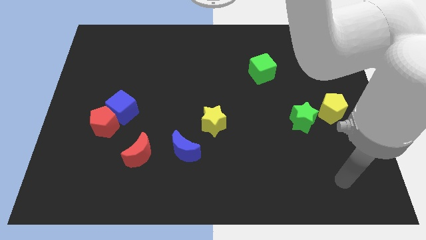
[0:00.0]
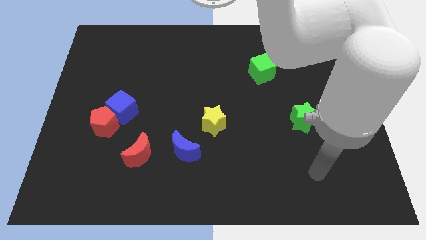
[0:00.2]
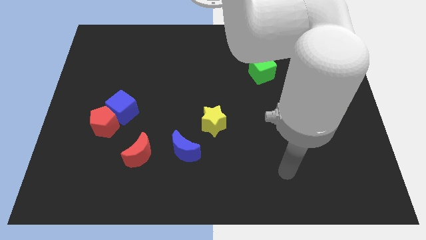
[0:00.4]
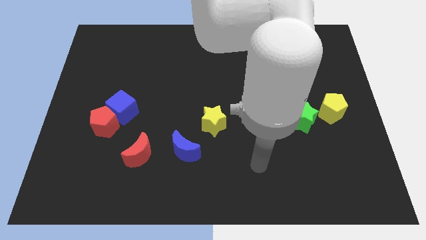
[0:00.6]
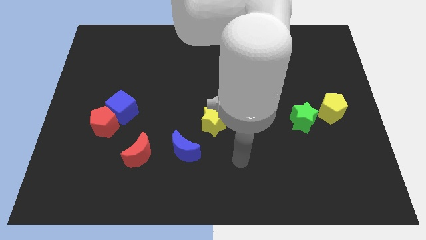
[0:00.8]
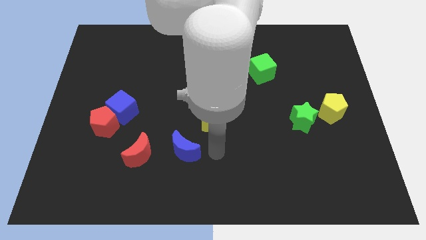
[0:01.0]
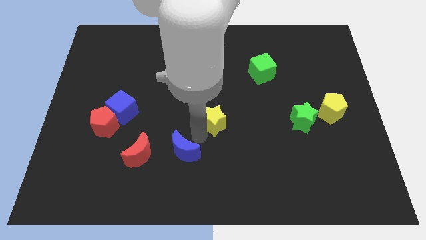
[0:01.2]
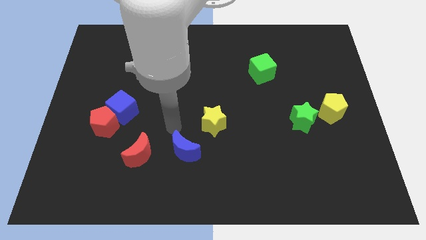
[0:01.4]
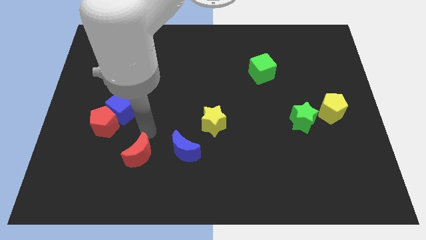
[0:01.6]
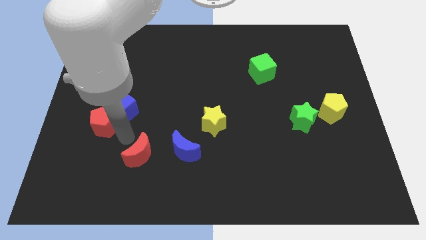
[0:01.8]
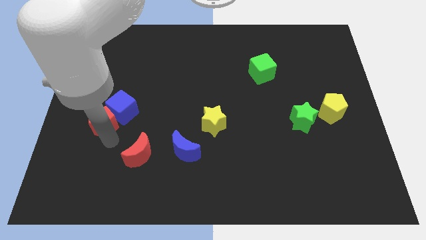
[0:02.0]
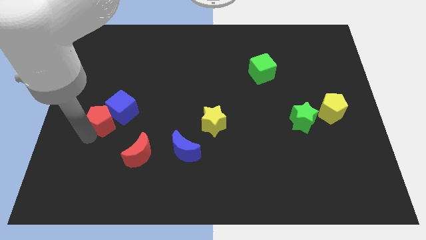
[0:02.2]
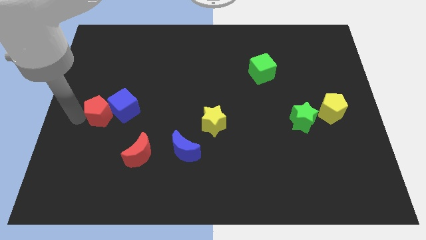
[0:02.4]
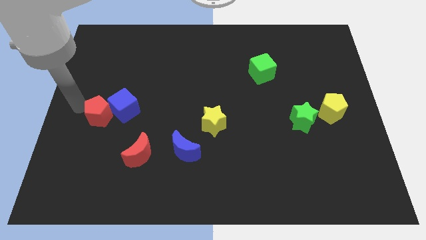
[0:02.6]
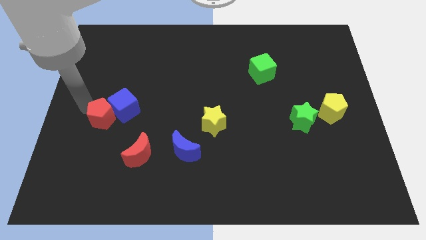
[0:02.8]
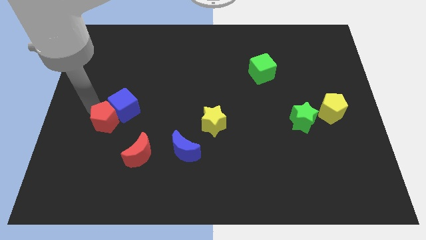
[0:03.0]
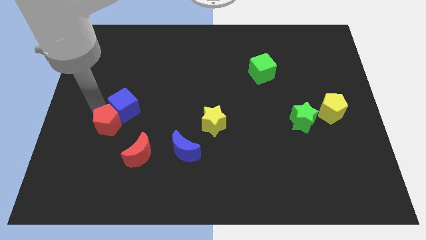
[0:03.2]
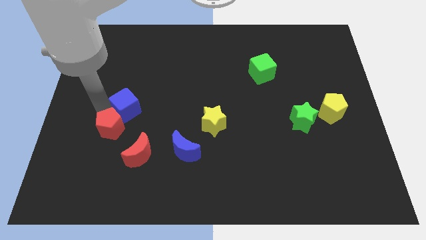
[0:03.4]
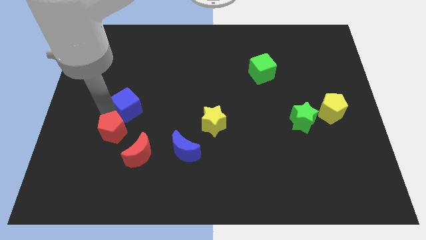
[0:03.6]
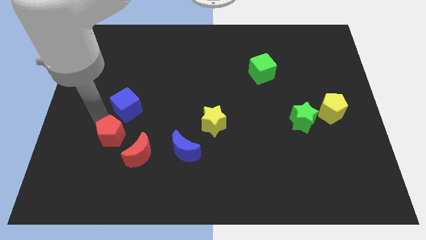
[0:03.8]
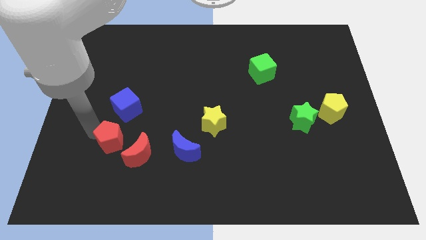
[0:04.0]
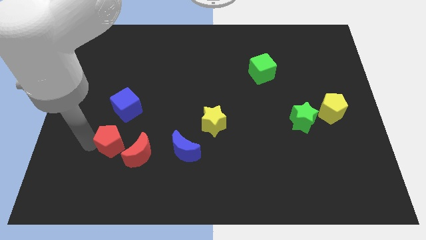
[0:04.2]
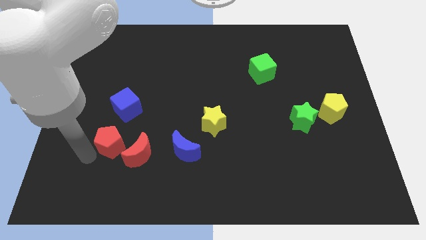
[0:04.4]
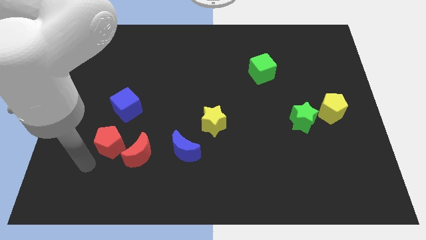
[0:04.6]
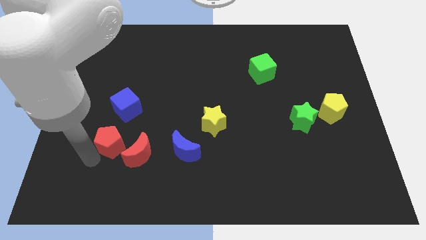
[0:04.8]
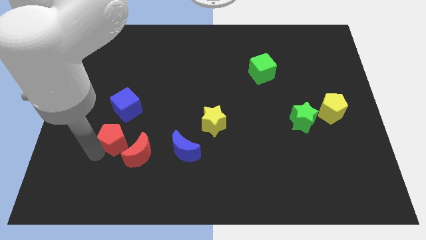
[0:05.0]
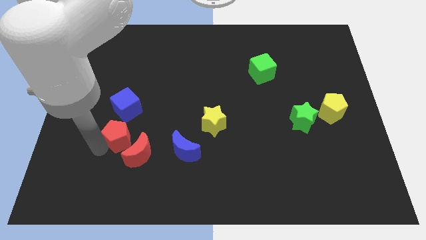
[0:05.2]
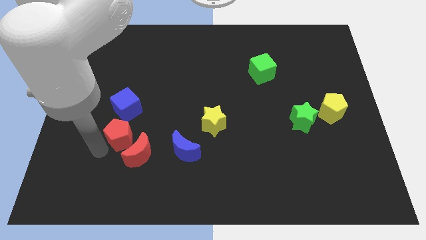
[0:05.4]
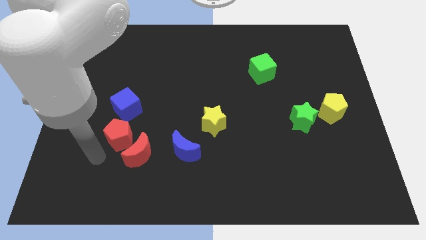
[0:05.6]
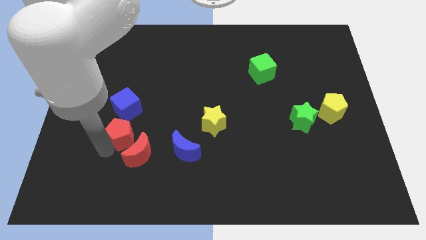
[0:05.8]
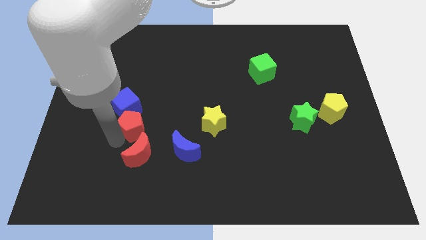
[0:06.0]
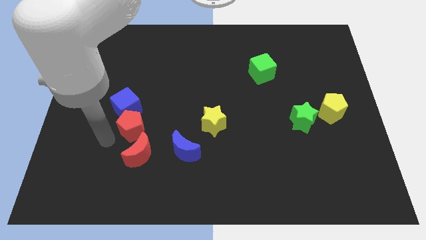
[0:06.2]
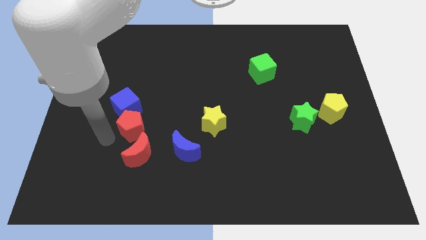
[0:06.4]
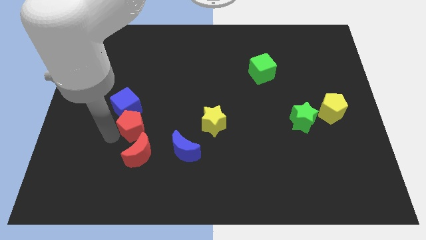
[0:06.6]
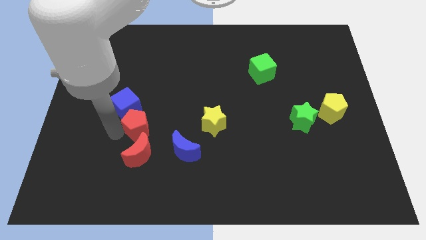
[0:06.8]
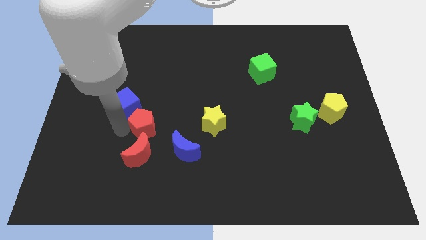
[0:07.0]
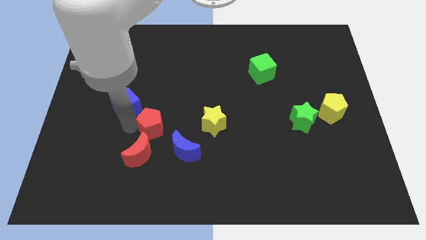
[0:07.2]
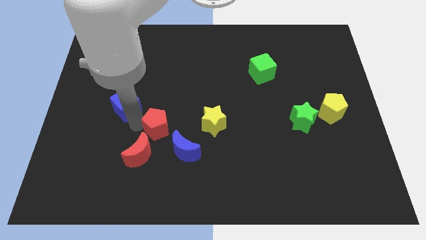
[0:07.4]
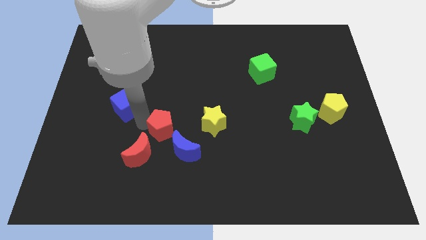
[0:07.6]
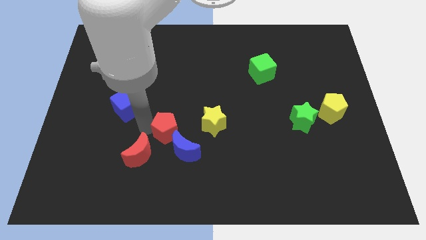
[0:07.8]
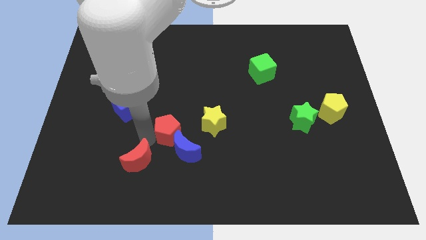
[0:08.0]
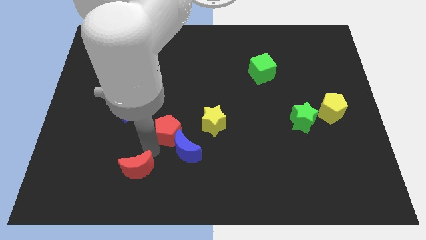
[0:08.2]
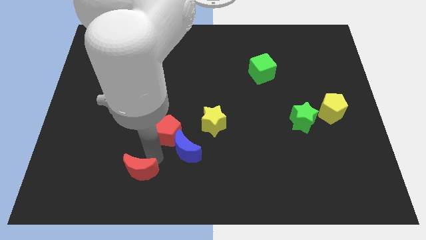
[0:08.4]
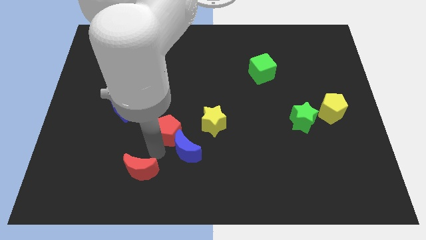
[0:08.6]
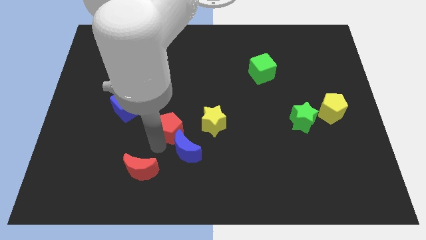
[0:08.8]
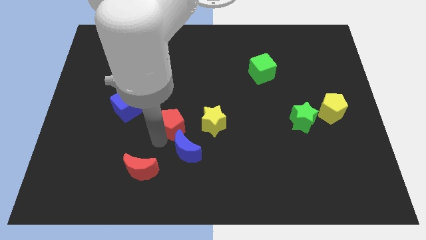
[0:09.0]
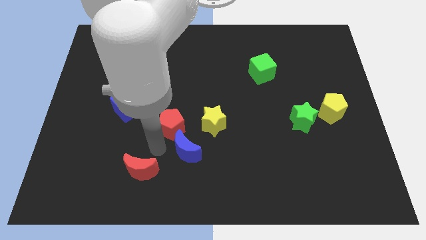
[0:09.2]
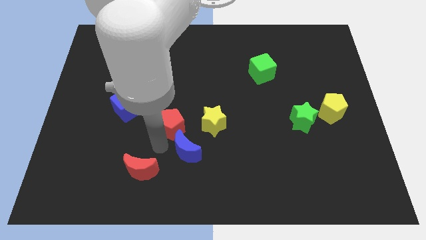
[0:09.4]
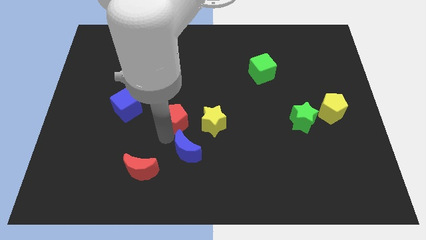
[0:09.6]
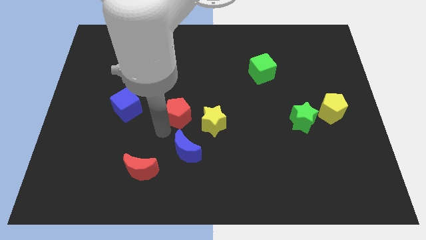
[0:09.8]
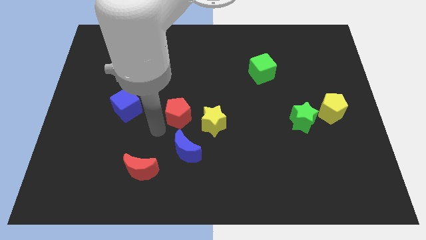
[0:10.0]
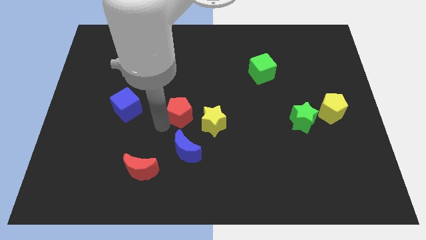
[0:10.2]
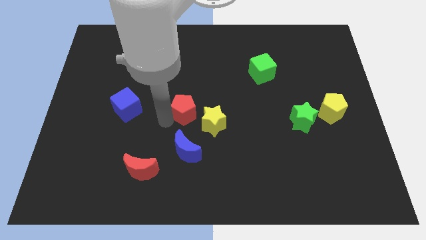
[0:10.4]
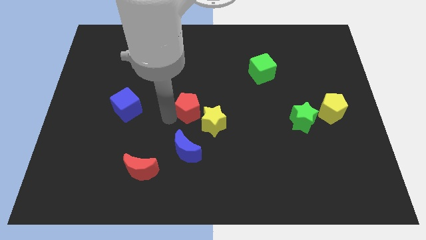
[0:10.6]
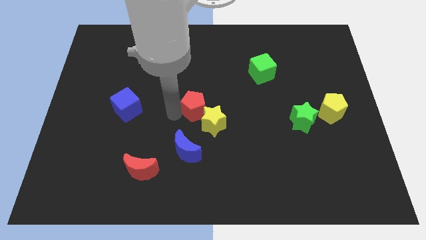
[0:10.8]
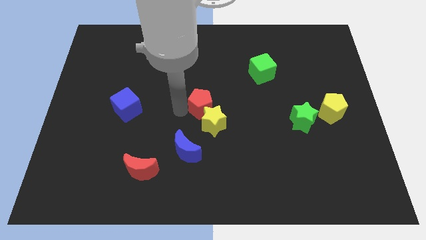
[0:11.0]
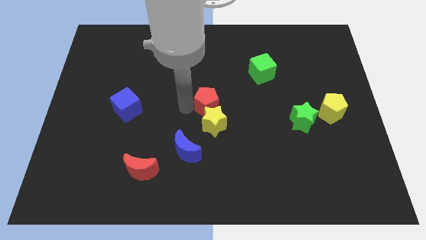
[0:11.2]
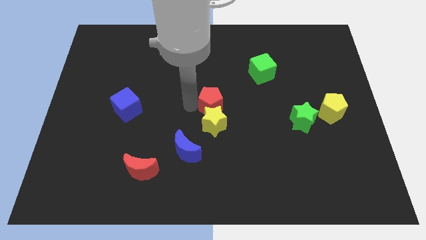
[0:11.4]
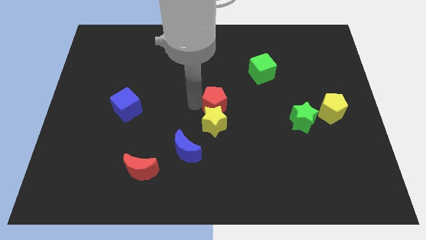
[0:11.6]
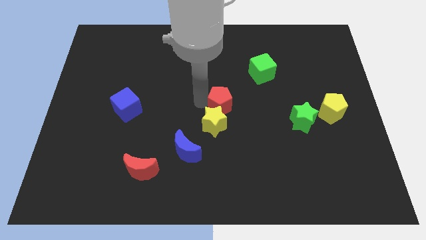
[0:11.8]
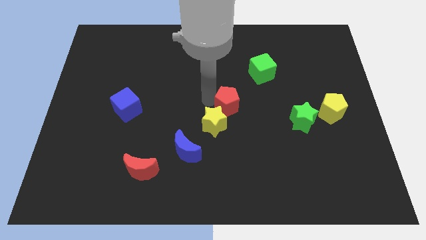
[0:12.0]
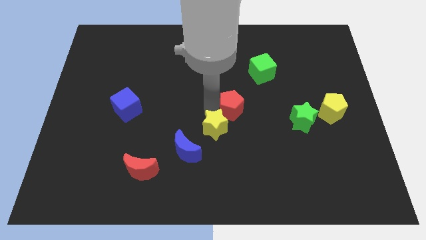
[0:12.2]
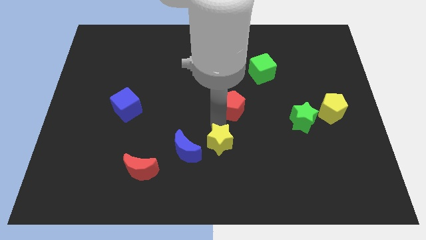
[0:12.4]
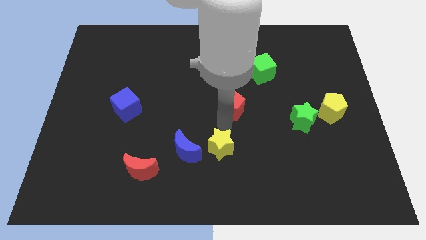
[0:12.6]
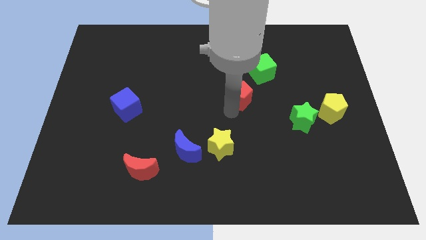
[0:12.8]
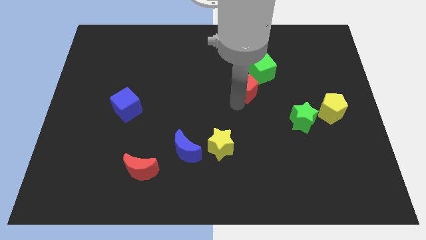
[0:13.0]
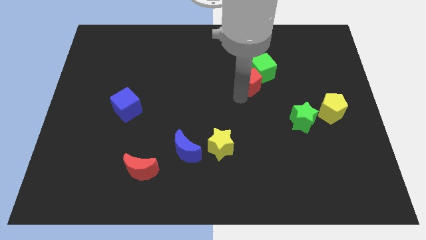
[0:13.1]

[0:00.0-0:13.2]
push the red pentagon close to the green cube
